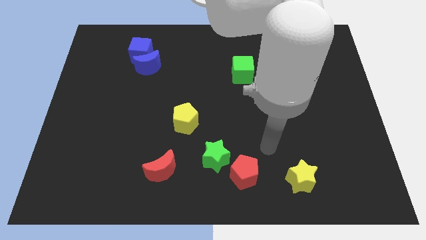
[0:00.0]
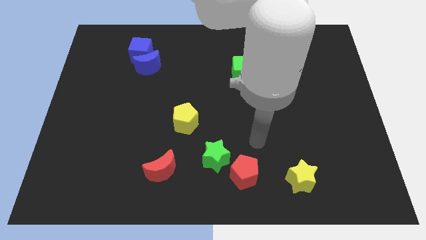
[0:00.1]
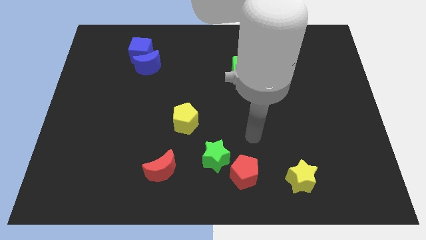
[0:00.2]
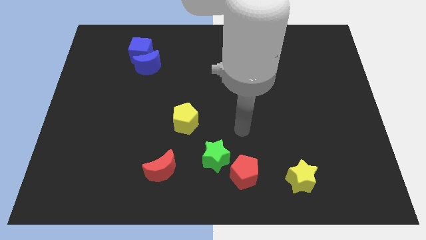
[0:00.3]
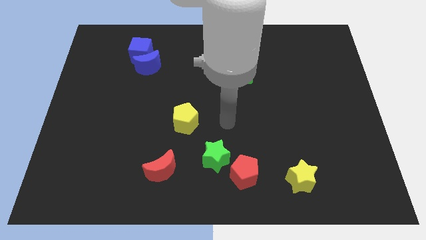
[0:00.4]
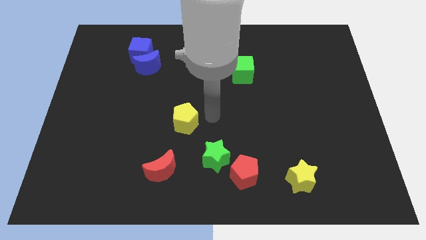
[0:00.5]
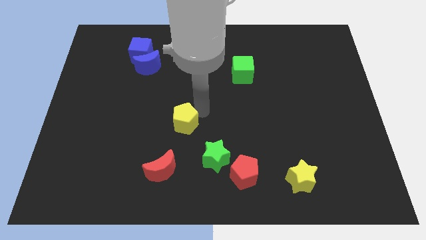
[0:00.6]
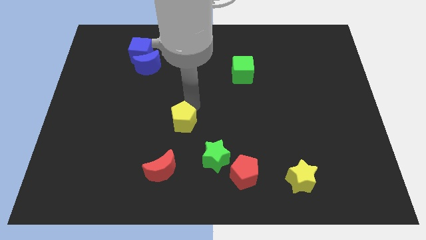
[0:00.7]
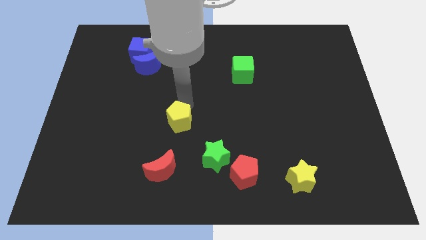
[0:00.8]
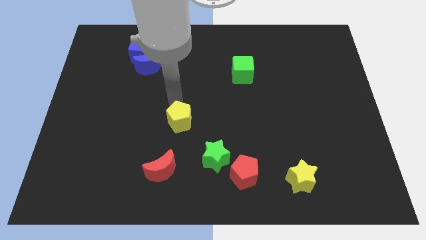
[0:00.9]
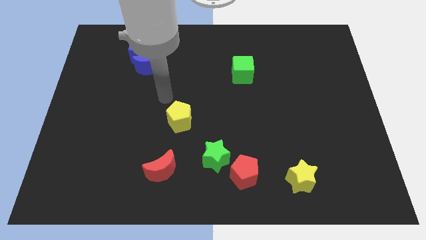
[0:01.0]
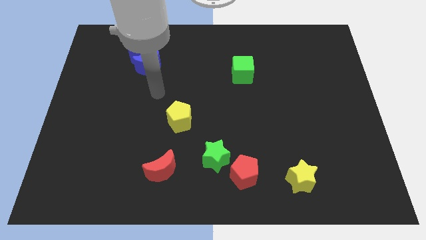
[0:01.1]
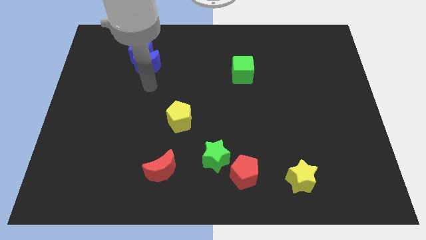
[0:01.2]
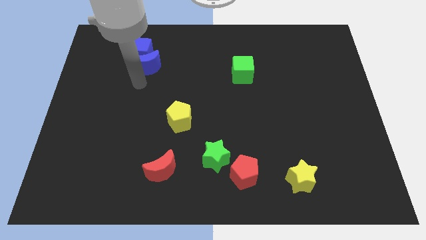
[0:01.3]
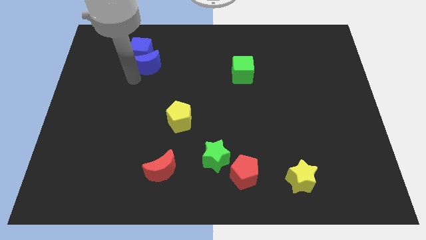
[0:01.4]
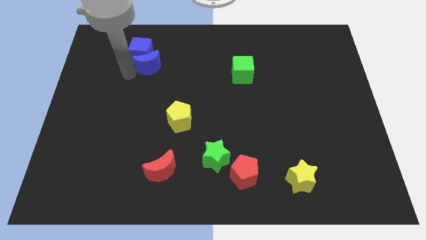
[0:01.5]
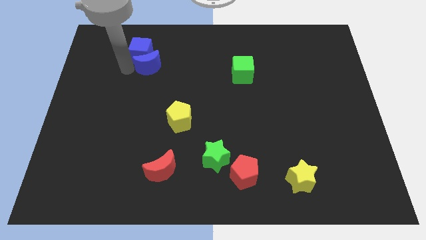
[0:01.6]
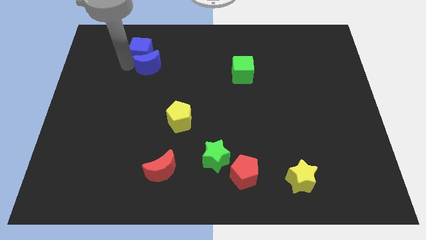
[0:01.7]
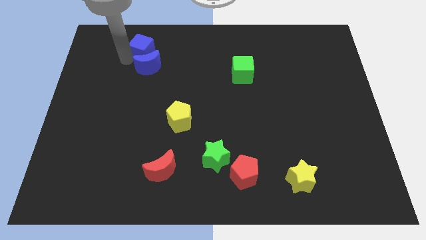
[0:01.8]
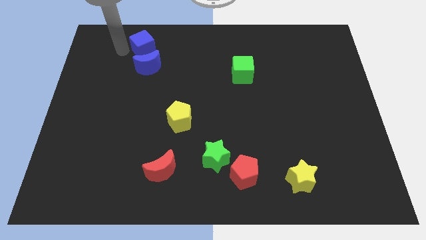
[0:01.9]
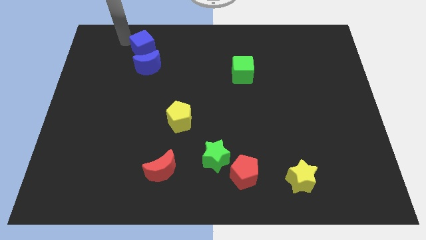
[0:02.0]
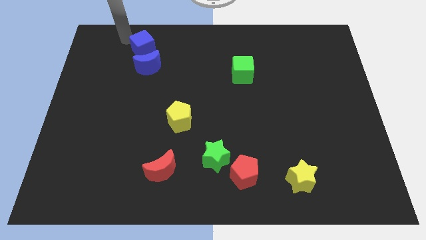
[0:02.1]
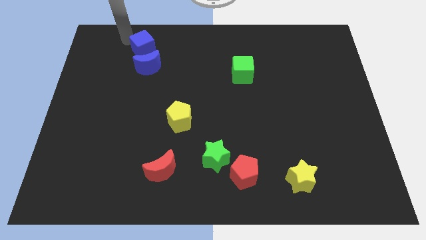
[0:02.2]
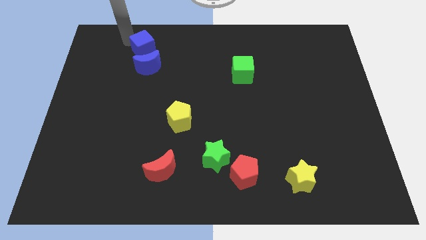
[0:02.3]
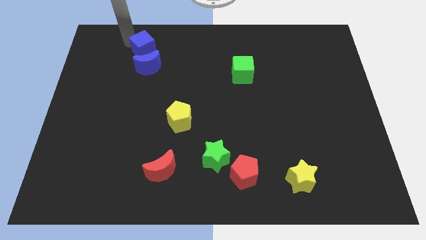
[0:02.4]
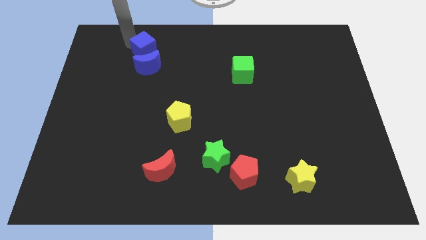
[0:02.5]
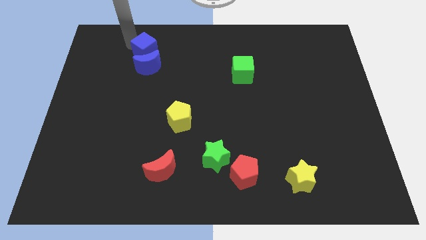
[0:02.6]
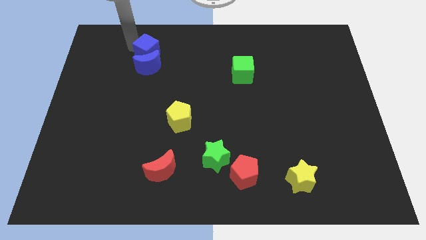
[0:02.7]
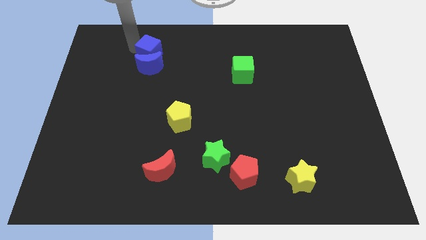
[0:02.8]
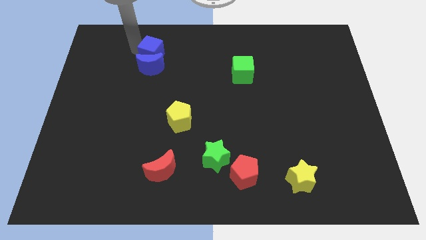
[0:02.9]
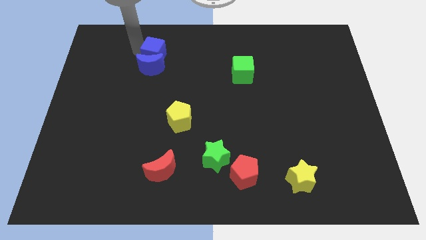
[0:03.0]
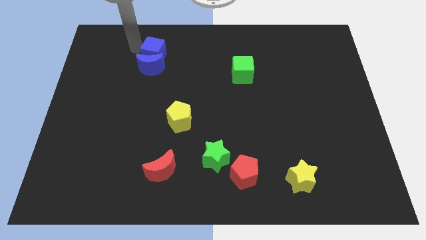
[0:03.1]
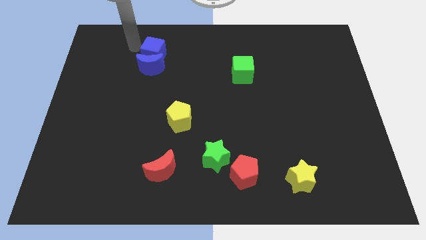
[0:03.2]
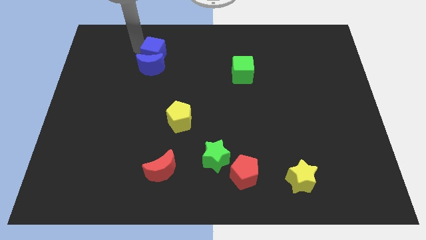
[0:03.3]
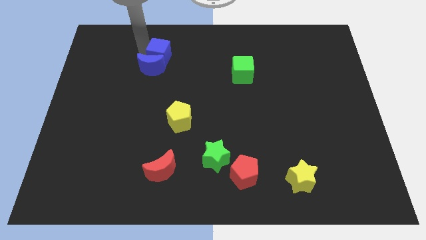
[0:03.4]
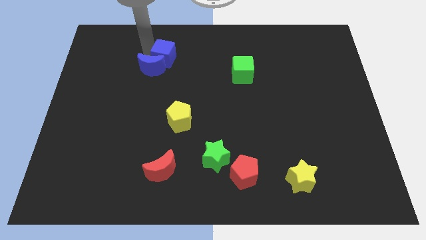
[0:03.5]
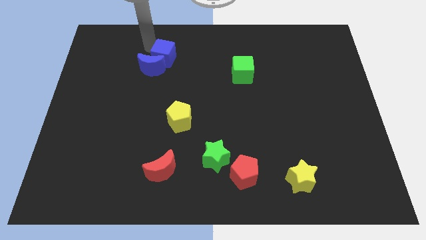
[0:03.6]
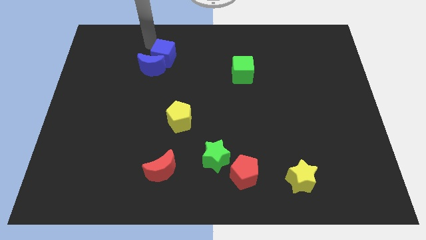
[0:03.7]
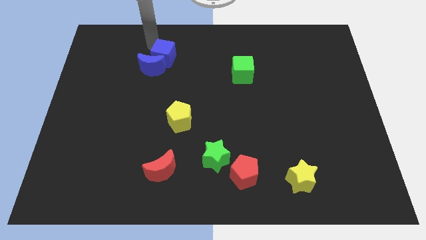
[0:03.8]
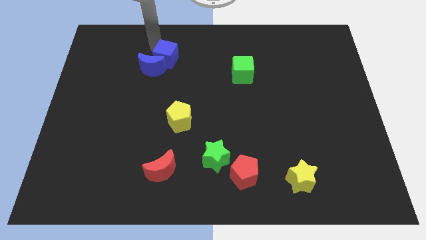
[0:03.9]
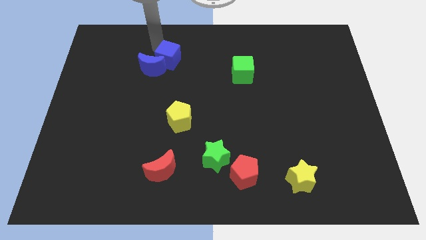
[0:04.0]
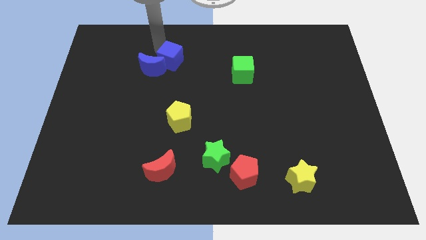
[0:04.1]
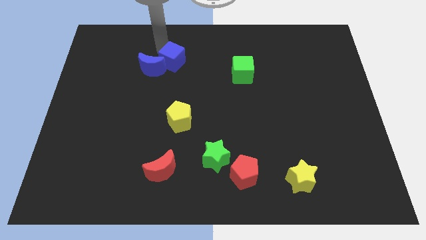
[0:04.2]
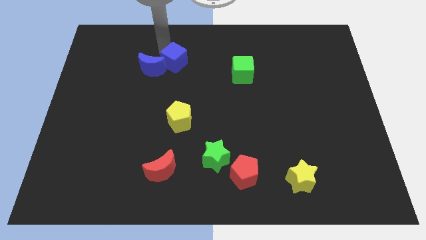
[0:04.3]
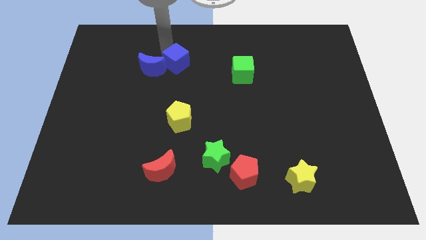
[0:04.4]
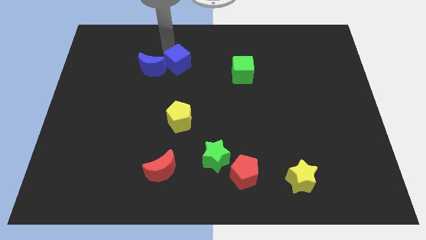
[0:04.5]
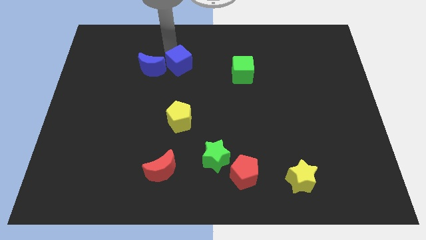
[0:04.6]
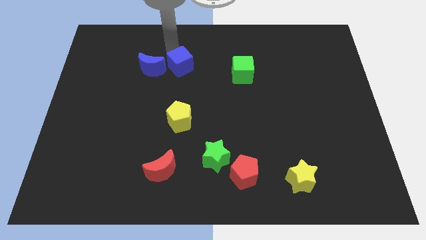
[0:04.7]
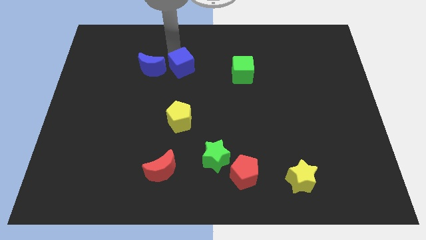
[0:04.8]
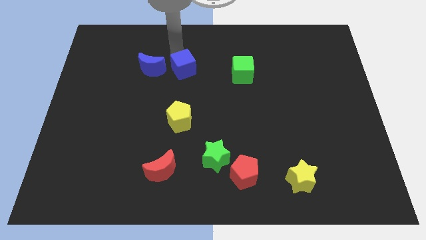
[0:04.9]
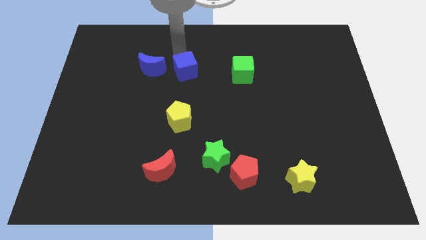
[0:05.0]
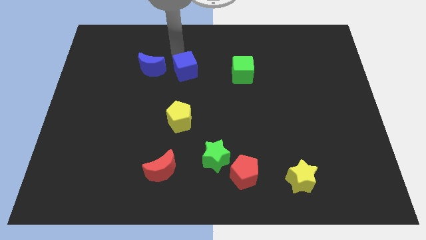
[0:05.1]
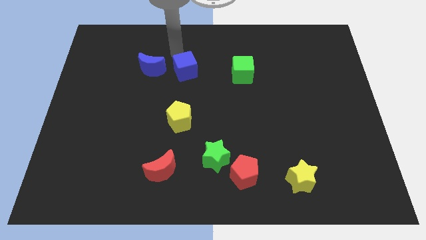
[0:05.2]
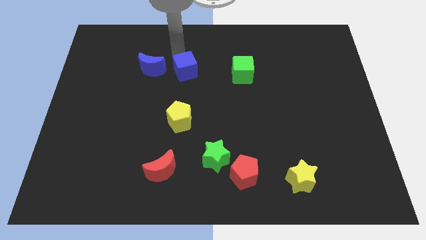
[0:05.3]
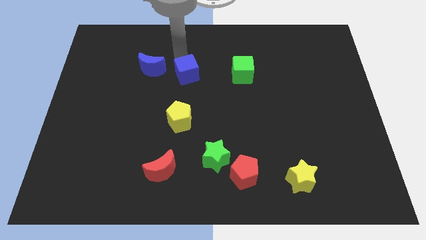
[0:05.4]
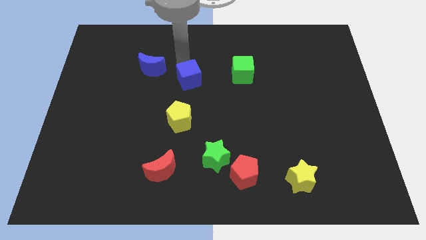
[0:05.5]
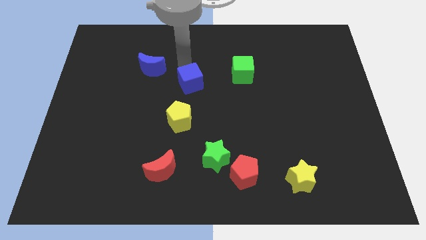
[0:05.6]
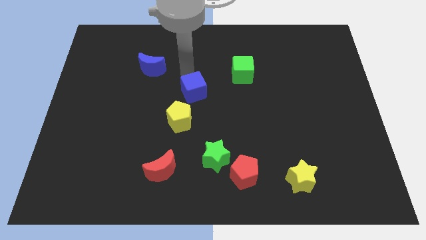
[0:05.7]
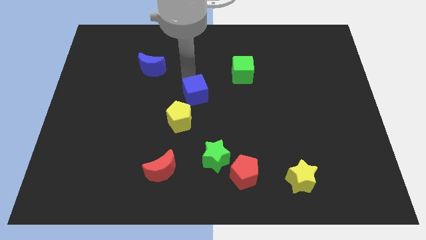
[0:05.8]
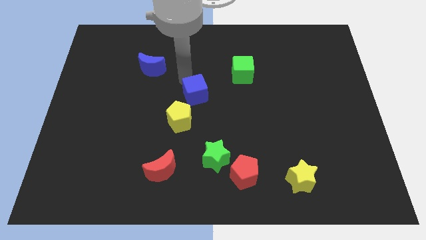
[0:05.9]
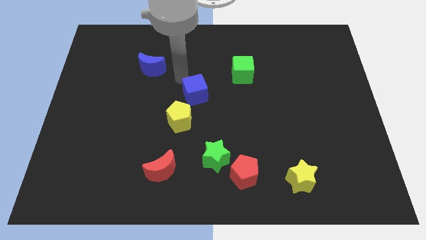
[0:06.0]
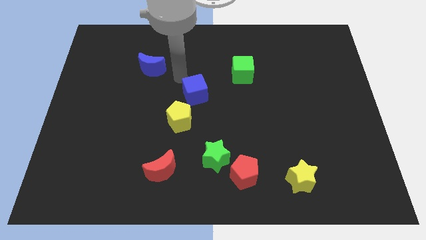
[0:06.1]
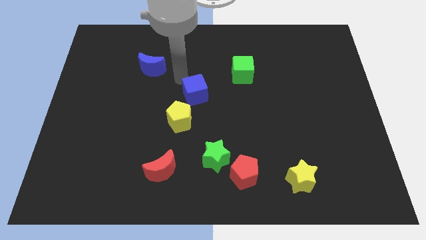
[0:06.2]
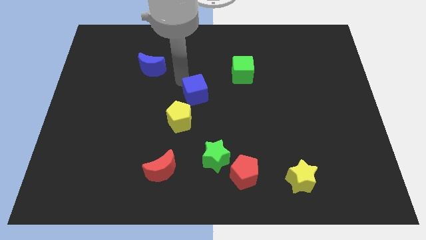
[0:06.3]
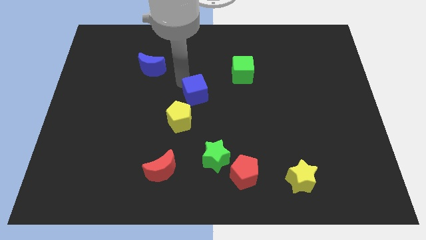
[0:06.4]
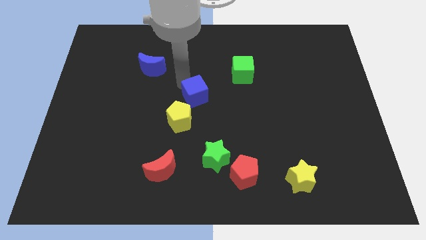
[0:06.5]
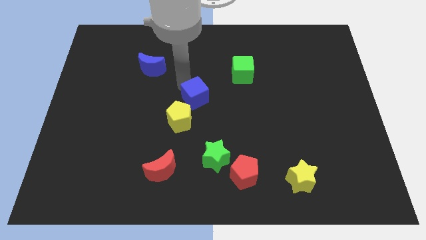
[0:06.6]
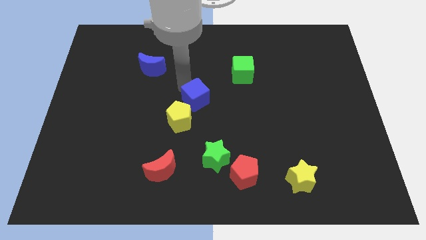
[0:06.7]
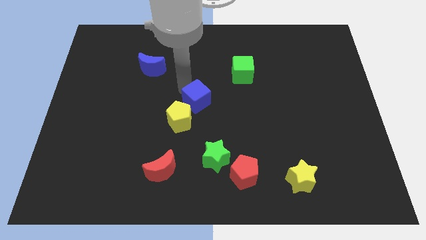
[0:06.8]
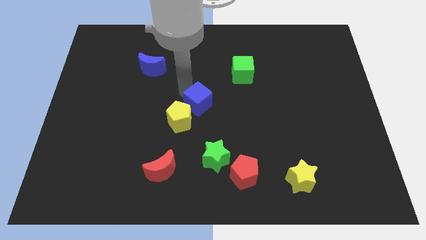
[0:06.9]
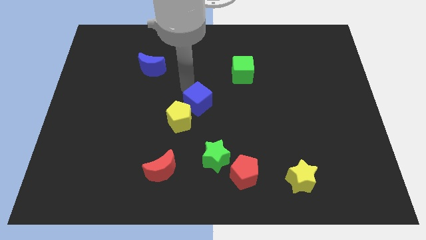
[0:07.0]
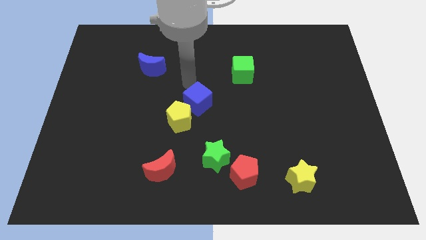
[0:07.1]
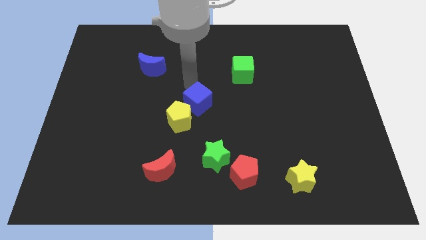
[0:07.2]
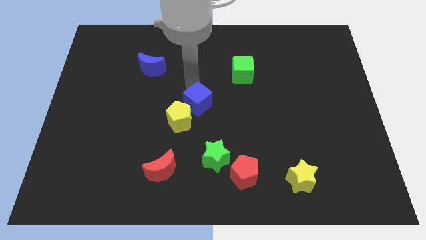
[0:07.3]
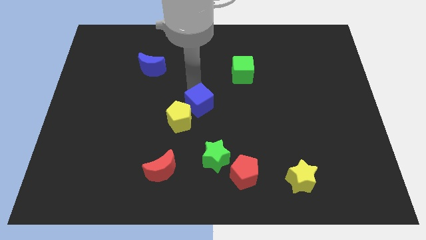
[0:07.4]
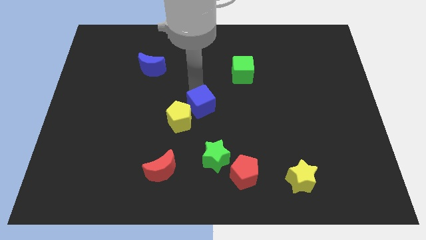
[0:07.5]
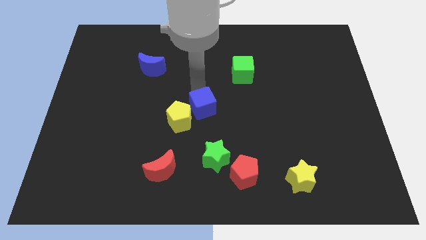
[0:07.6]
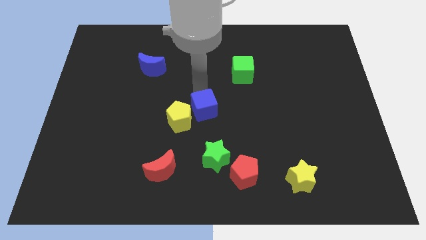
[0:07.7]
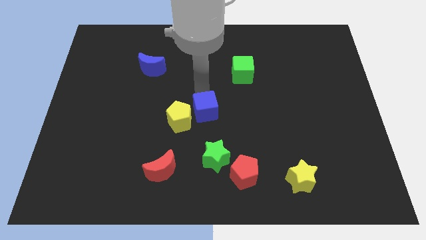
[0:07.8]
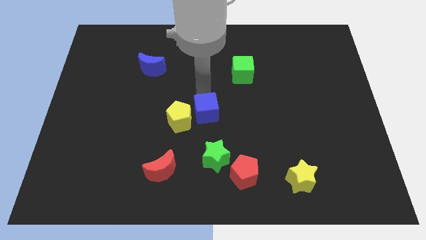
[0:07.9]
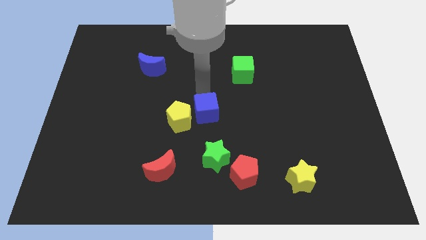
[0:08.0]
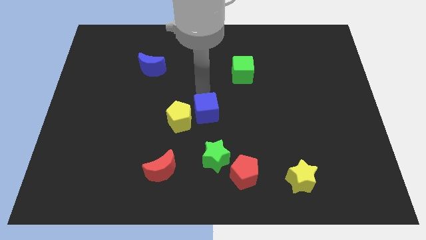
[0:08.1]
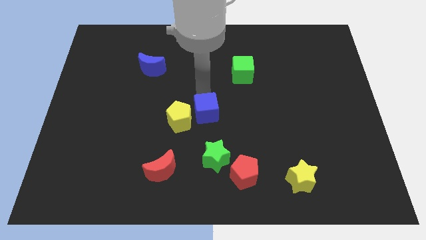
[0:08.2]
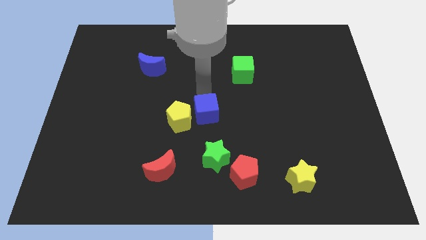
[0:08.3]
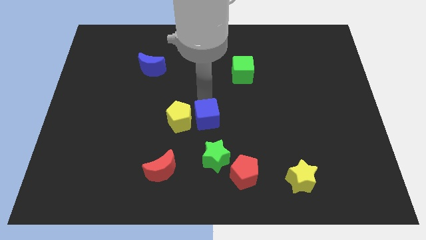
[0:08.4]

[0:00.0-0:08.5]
push the blue cube diagonally down and to the right of the yellow pentagon
